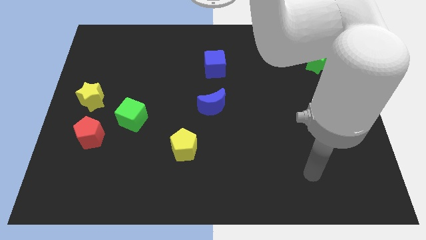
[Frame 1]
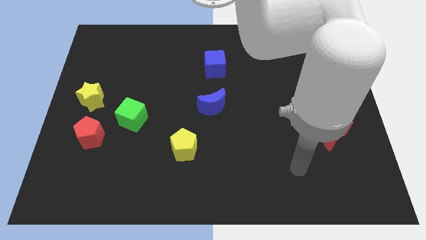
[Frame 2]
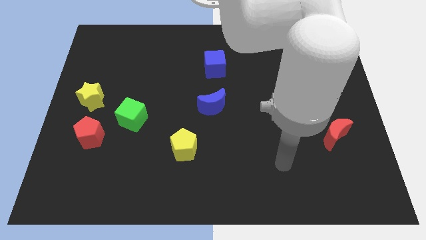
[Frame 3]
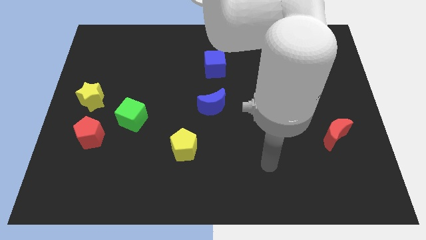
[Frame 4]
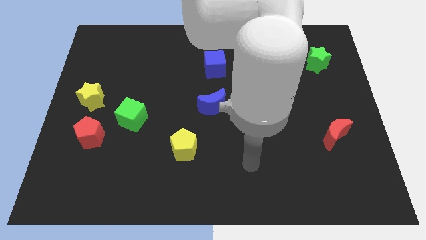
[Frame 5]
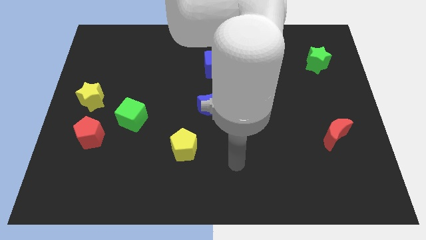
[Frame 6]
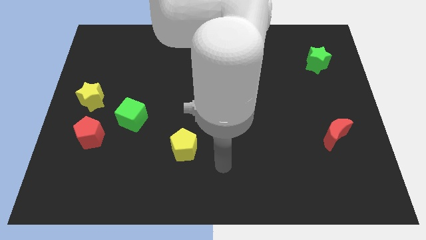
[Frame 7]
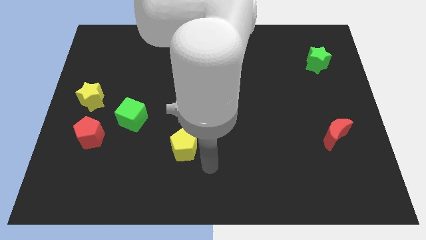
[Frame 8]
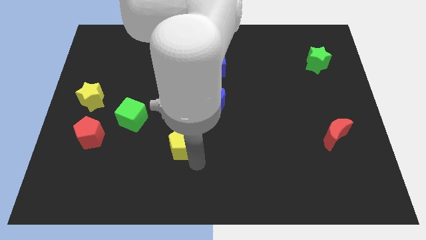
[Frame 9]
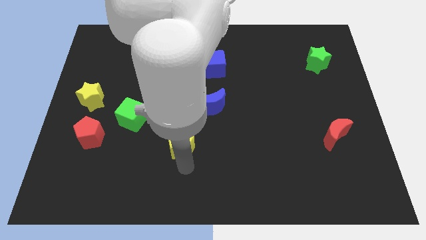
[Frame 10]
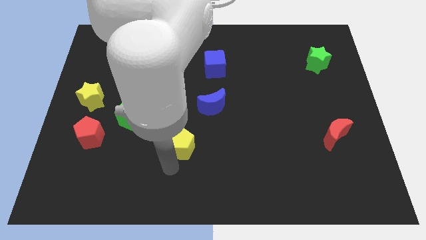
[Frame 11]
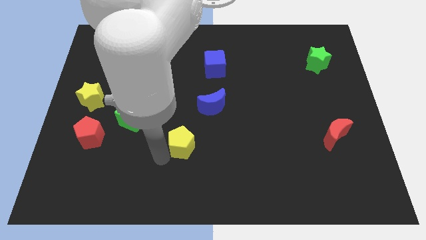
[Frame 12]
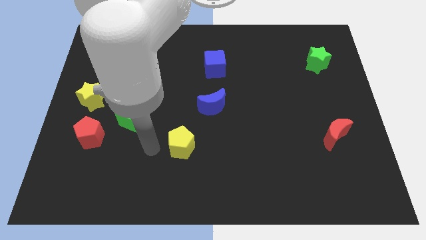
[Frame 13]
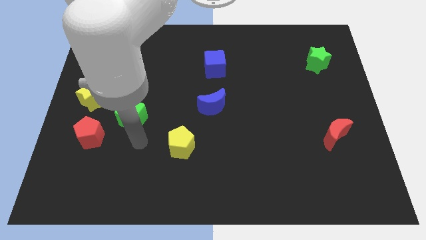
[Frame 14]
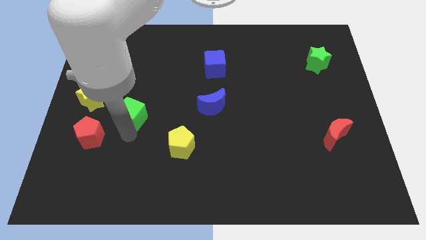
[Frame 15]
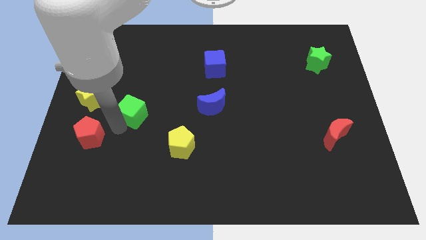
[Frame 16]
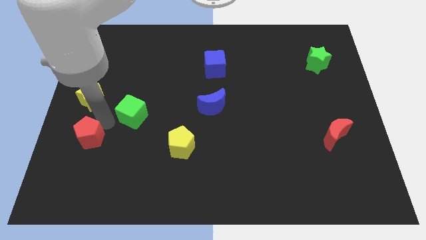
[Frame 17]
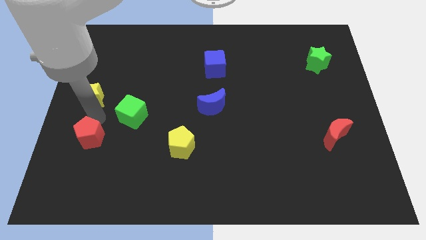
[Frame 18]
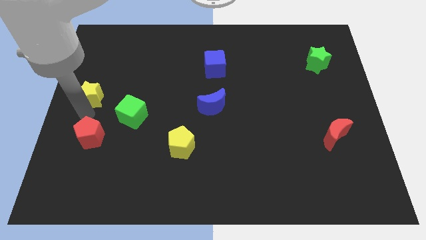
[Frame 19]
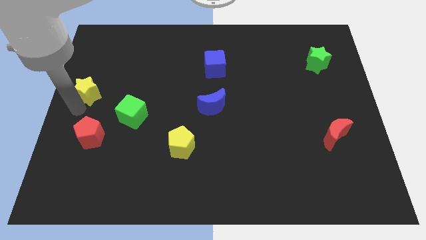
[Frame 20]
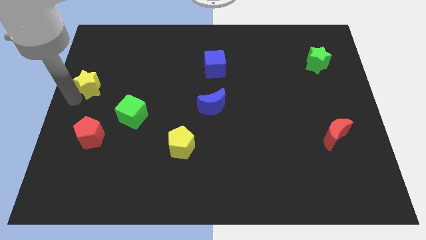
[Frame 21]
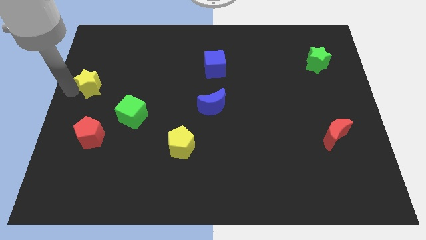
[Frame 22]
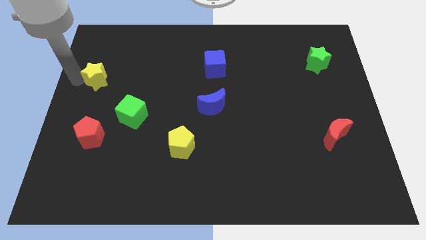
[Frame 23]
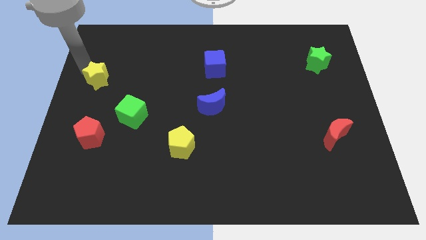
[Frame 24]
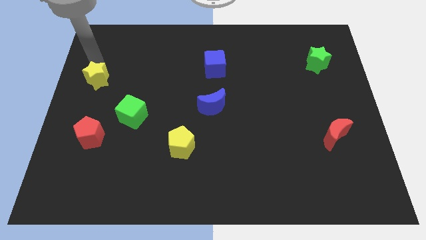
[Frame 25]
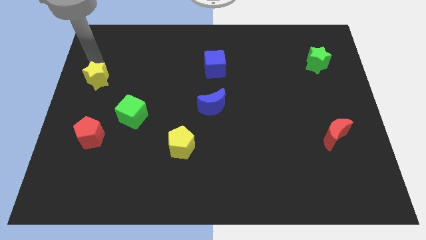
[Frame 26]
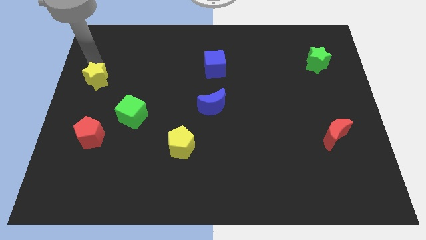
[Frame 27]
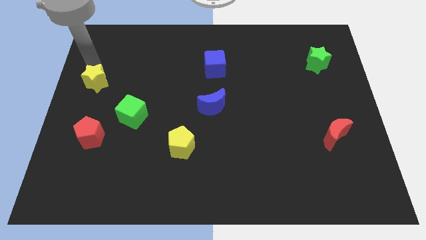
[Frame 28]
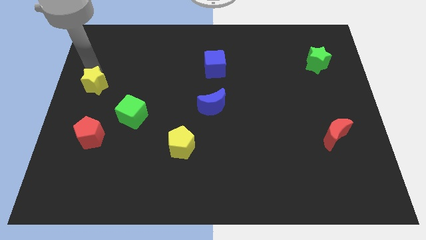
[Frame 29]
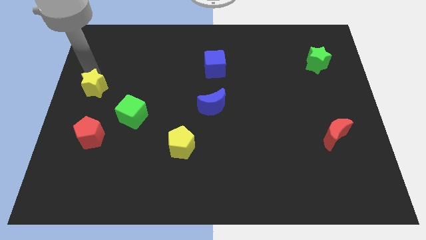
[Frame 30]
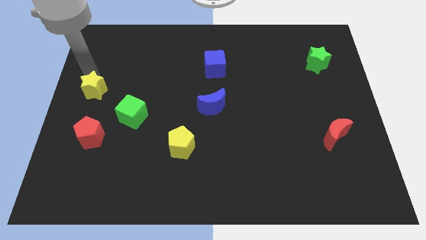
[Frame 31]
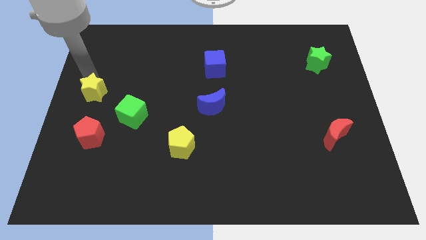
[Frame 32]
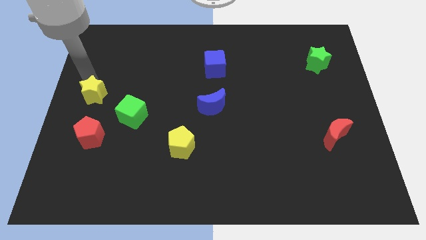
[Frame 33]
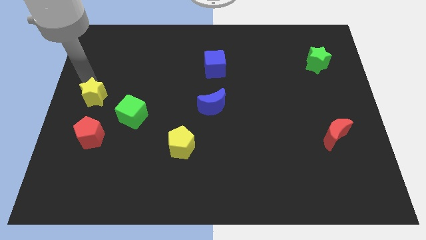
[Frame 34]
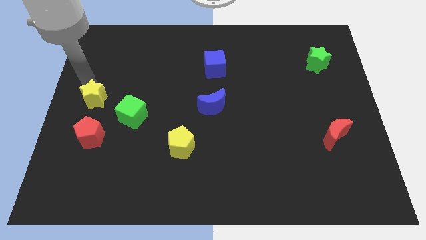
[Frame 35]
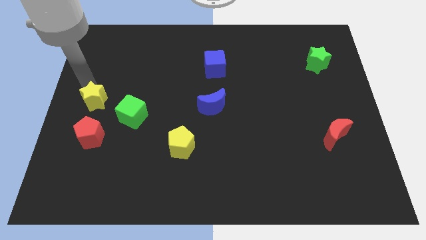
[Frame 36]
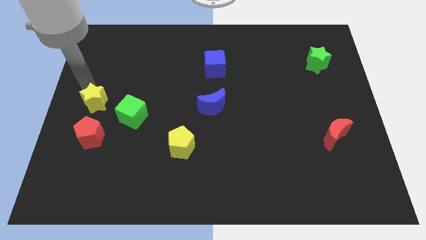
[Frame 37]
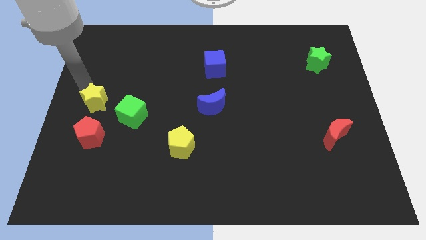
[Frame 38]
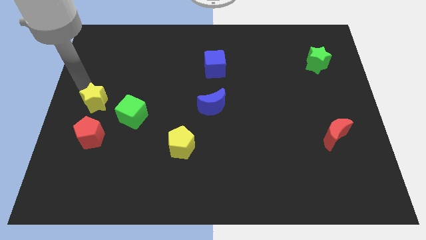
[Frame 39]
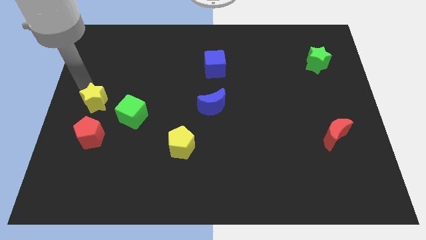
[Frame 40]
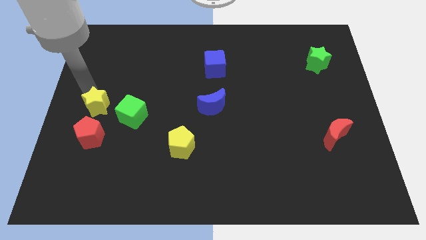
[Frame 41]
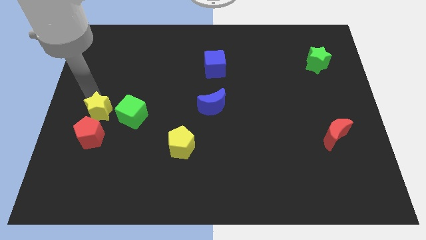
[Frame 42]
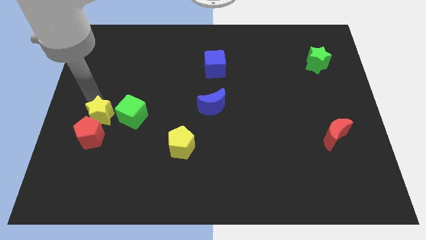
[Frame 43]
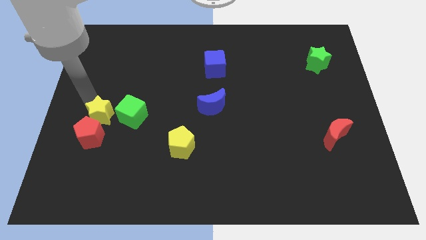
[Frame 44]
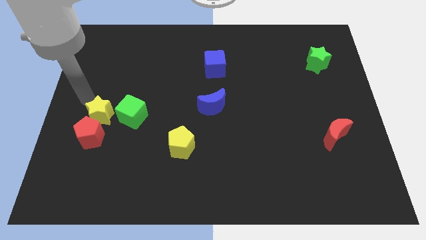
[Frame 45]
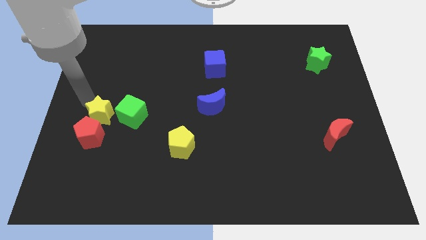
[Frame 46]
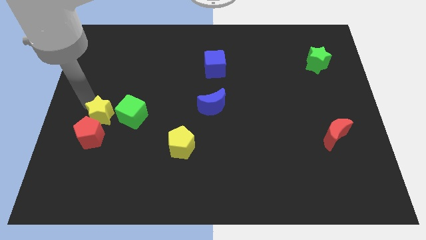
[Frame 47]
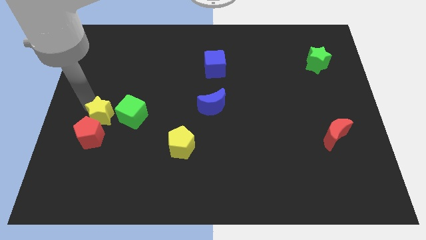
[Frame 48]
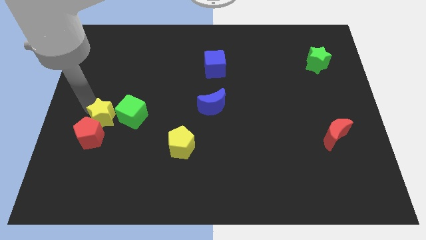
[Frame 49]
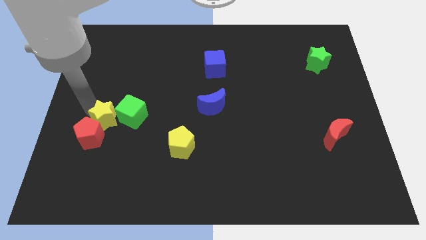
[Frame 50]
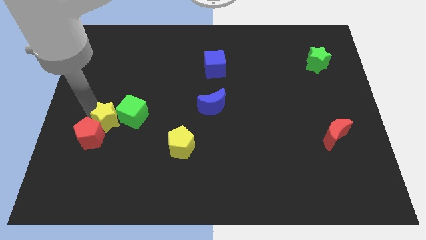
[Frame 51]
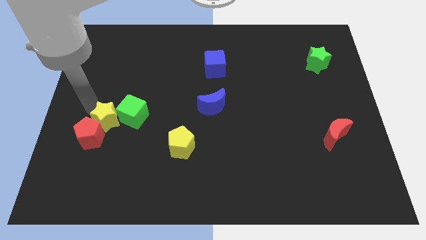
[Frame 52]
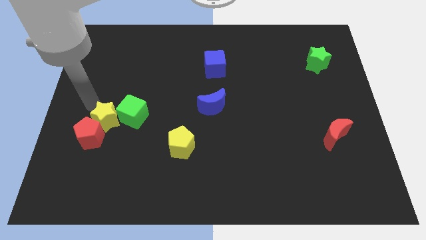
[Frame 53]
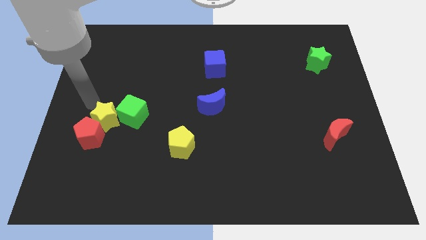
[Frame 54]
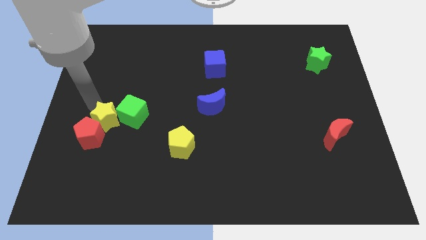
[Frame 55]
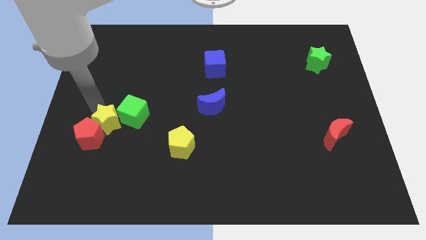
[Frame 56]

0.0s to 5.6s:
put the yellow star right of the red pentagon

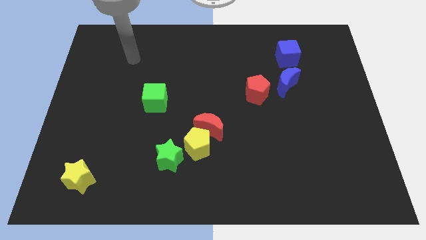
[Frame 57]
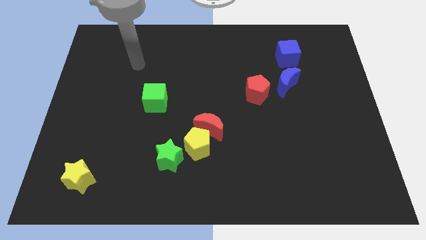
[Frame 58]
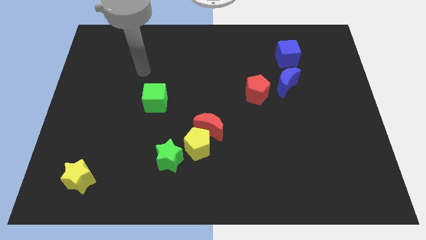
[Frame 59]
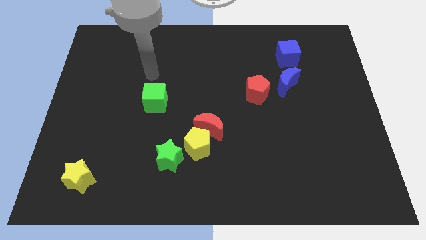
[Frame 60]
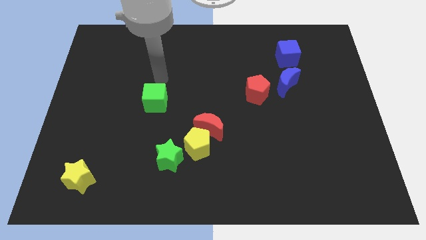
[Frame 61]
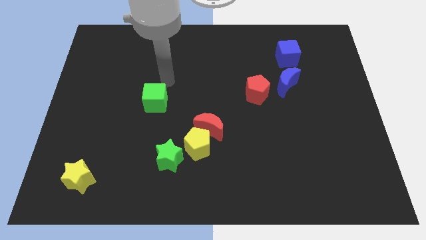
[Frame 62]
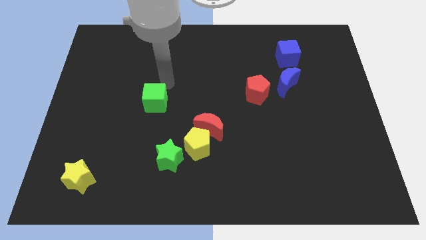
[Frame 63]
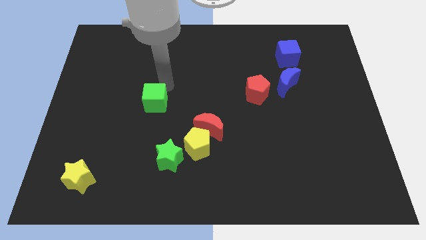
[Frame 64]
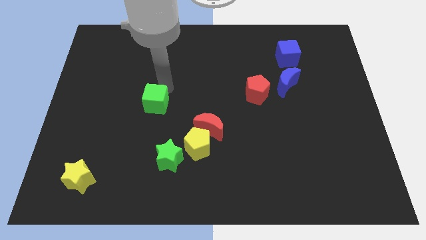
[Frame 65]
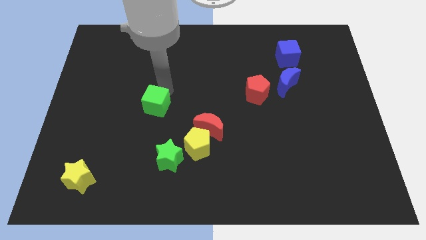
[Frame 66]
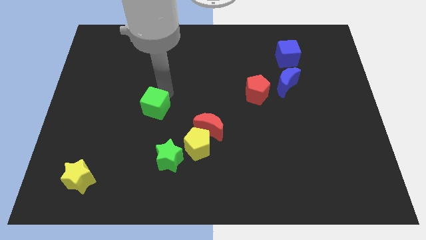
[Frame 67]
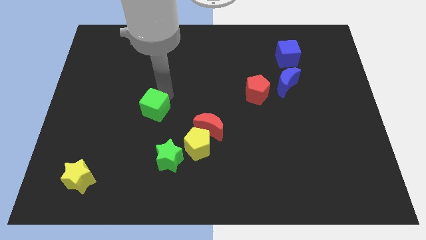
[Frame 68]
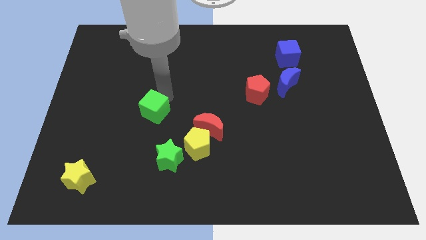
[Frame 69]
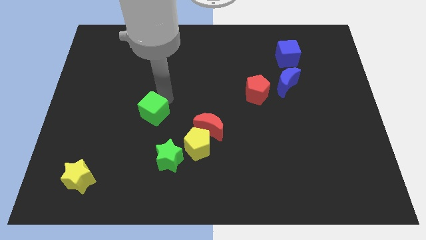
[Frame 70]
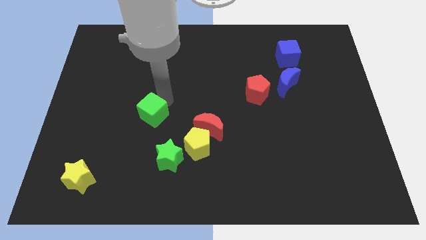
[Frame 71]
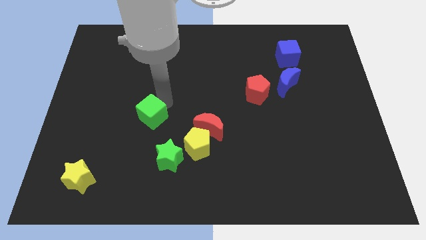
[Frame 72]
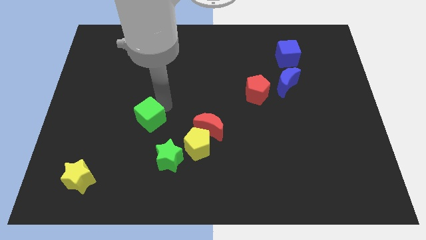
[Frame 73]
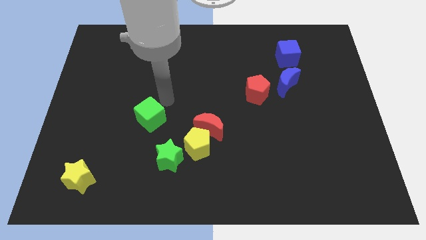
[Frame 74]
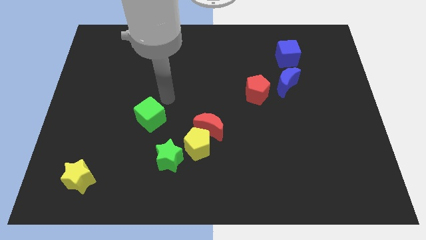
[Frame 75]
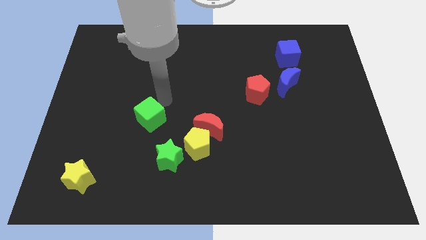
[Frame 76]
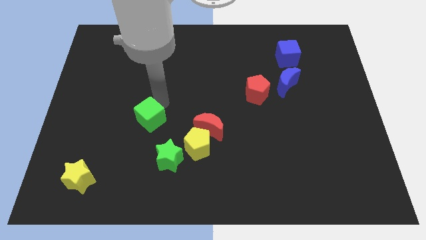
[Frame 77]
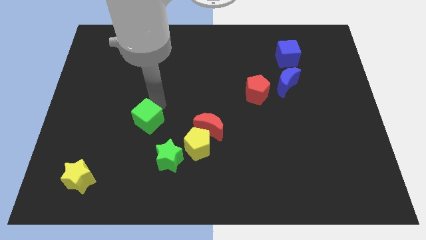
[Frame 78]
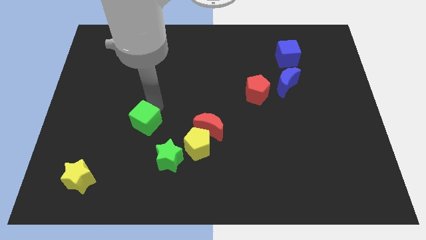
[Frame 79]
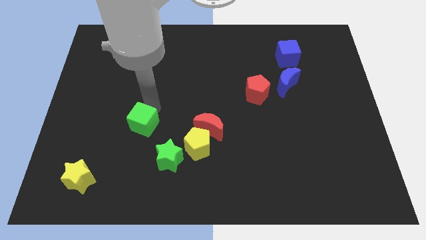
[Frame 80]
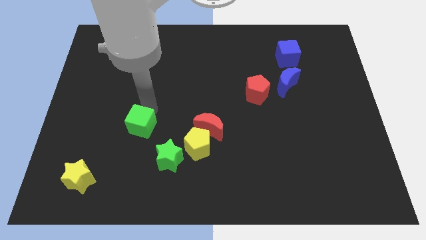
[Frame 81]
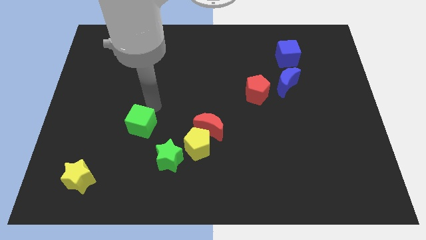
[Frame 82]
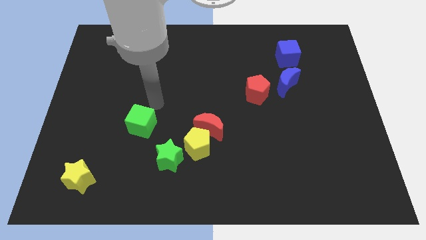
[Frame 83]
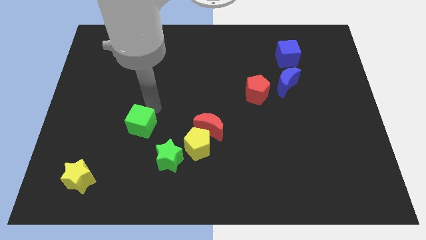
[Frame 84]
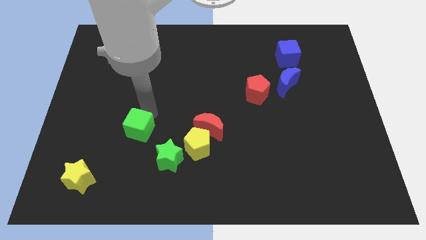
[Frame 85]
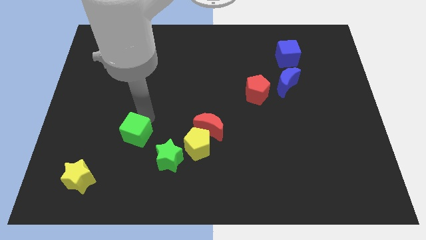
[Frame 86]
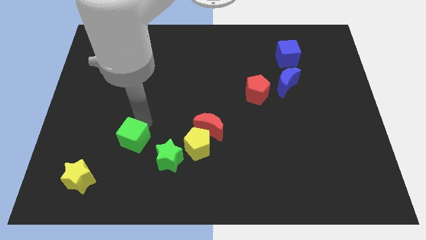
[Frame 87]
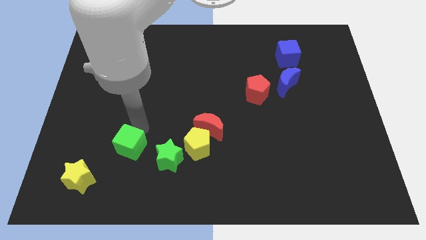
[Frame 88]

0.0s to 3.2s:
push the green cube to the left side of the green star
